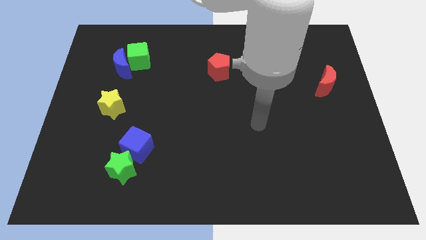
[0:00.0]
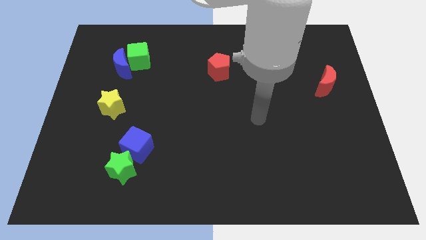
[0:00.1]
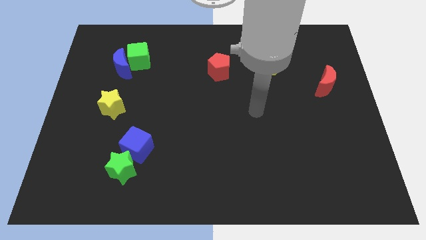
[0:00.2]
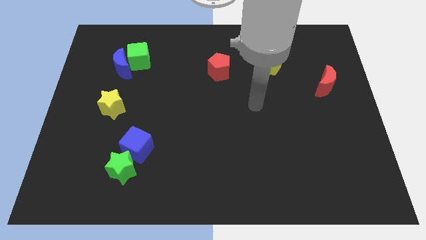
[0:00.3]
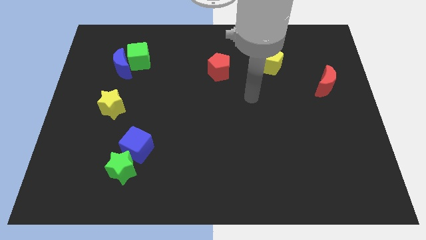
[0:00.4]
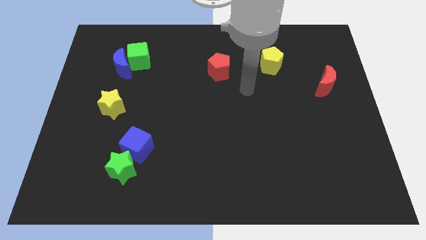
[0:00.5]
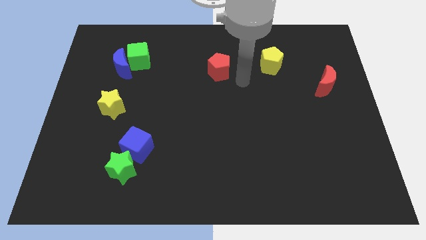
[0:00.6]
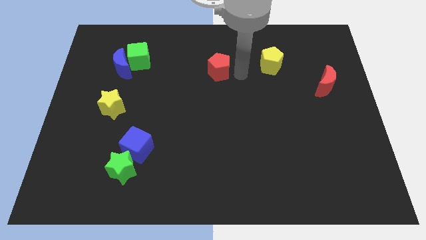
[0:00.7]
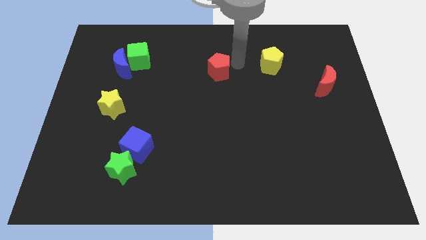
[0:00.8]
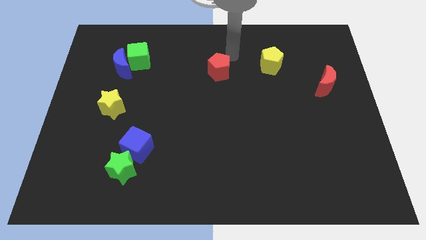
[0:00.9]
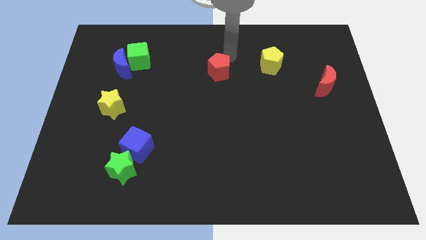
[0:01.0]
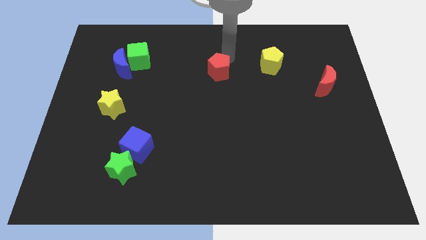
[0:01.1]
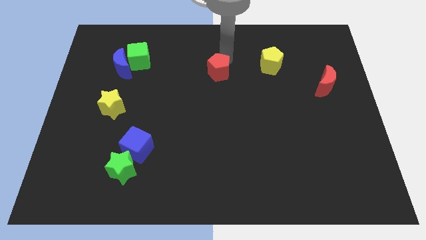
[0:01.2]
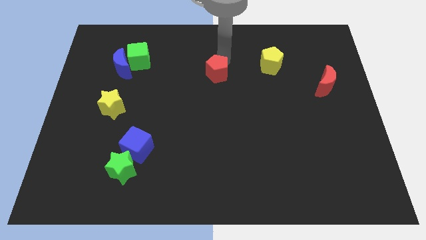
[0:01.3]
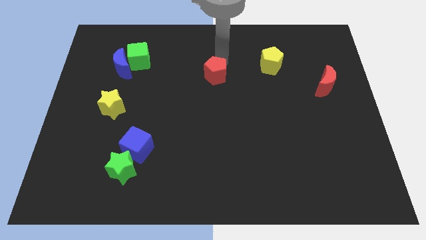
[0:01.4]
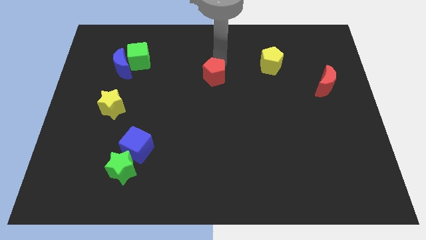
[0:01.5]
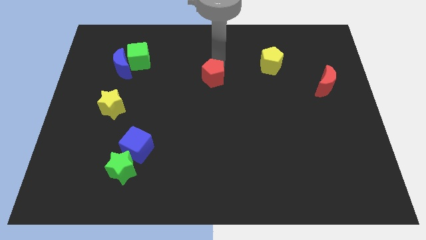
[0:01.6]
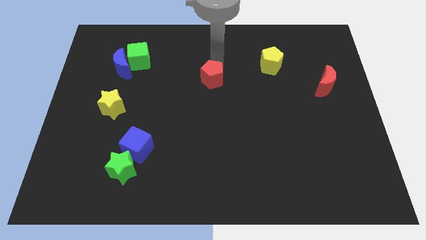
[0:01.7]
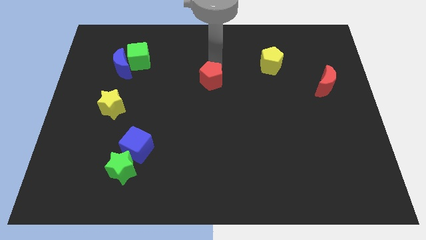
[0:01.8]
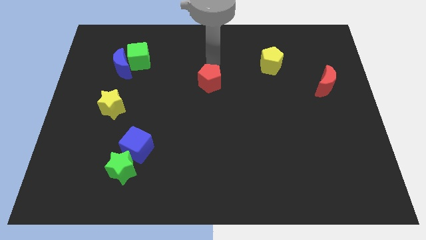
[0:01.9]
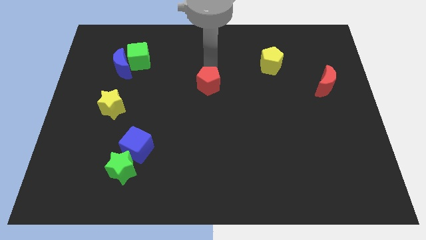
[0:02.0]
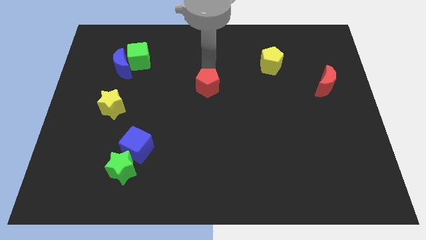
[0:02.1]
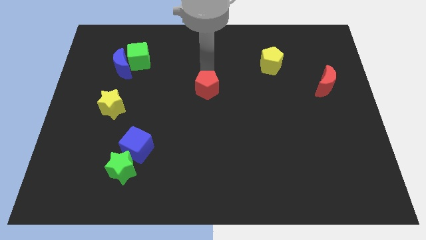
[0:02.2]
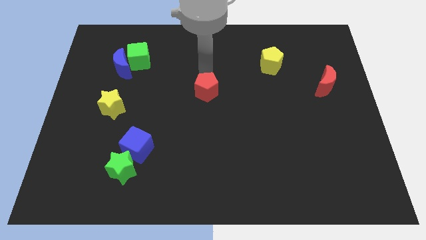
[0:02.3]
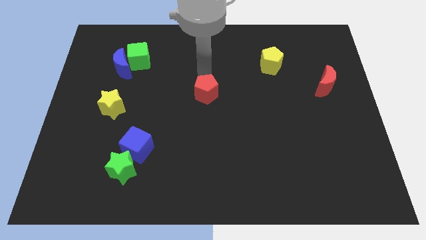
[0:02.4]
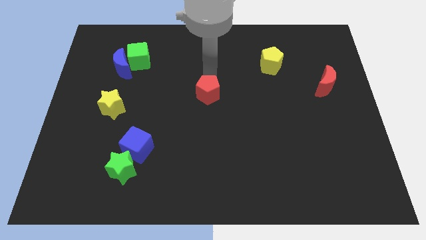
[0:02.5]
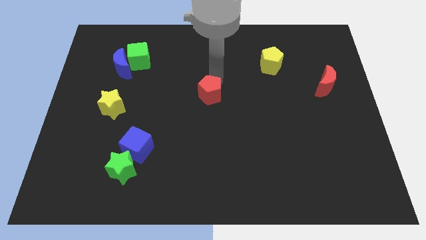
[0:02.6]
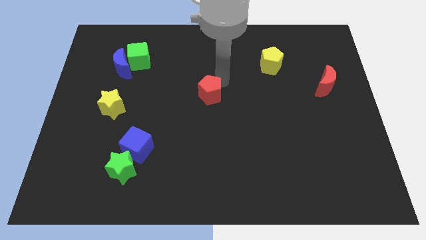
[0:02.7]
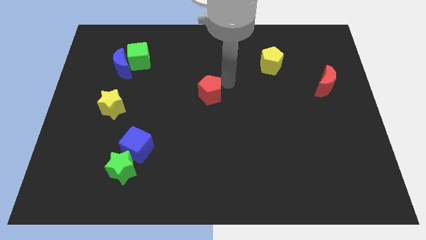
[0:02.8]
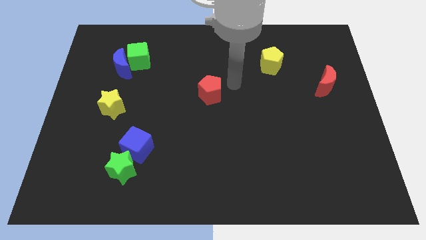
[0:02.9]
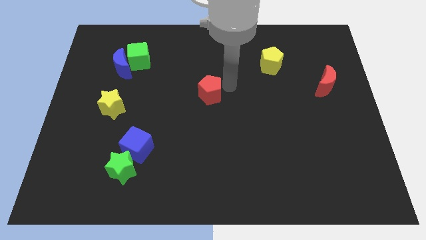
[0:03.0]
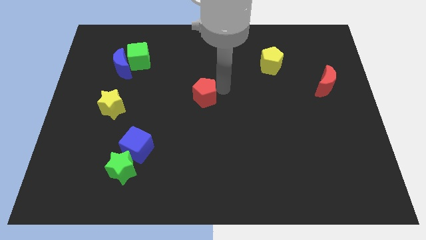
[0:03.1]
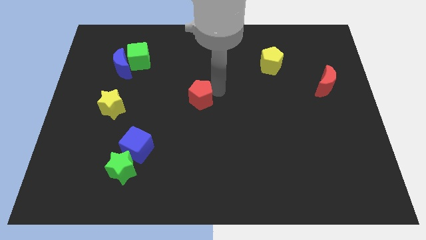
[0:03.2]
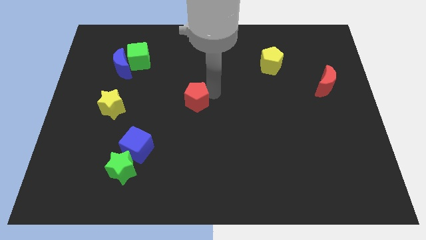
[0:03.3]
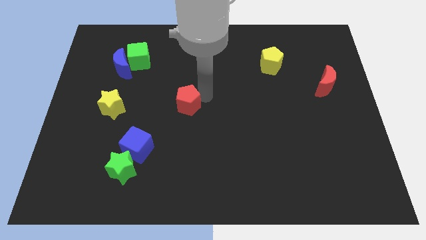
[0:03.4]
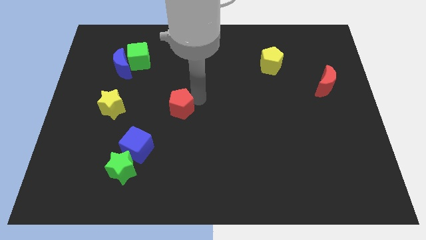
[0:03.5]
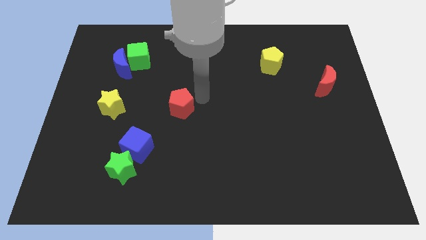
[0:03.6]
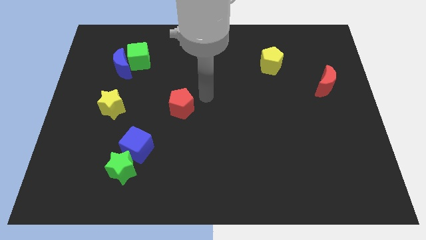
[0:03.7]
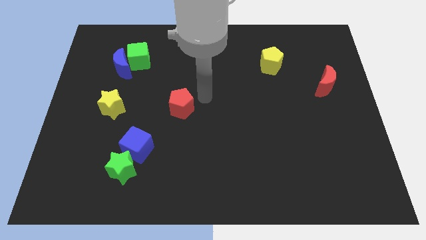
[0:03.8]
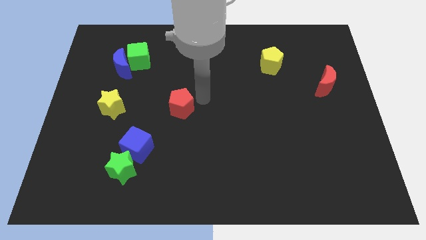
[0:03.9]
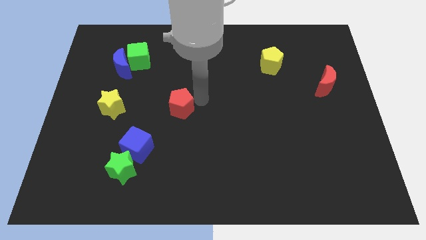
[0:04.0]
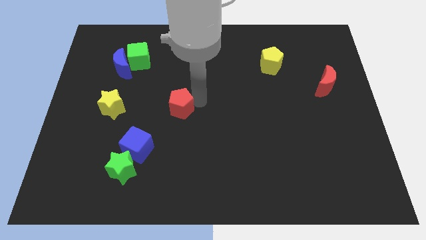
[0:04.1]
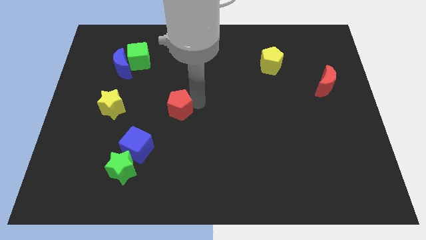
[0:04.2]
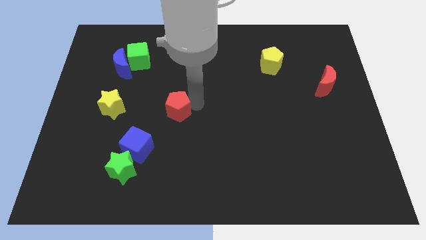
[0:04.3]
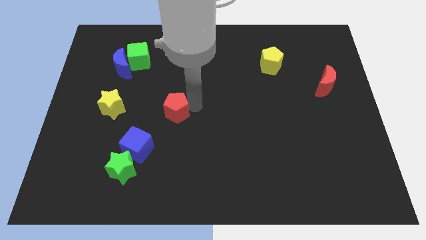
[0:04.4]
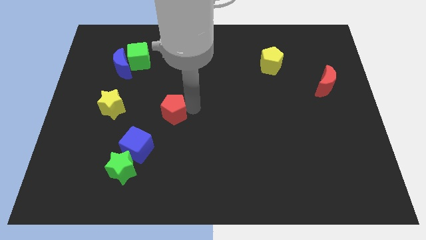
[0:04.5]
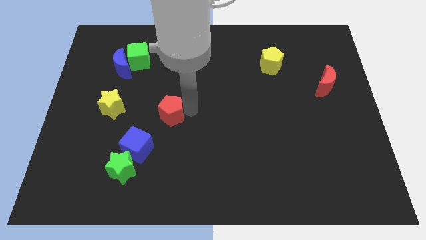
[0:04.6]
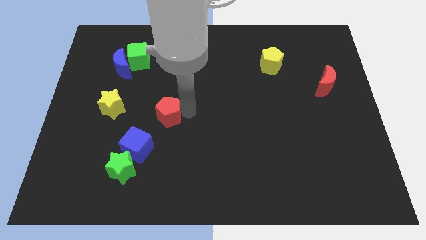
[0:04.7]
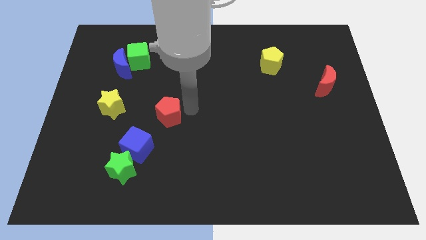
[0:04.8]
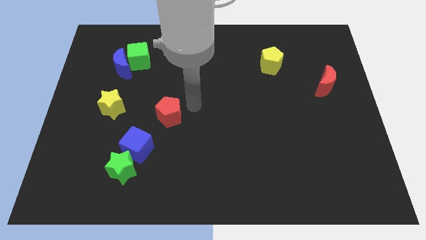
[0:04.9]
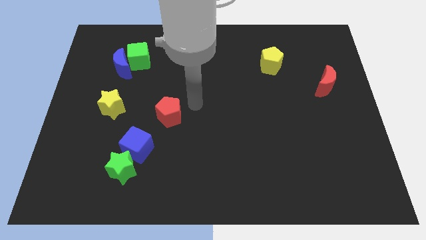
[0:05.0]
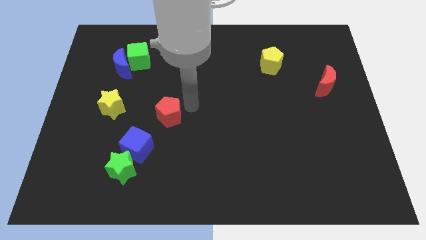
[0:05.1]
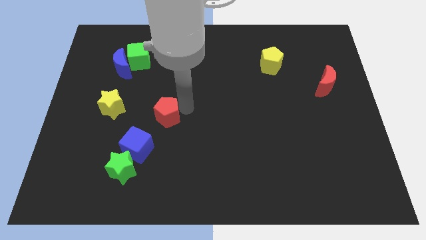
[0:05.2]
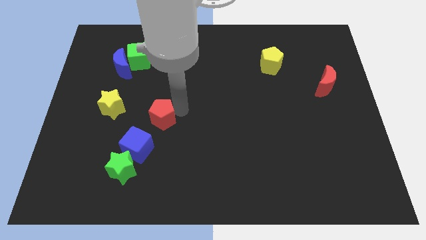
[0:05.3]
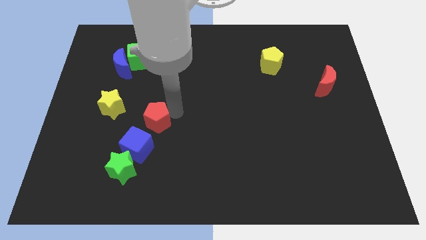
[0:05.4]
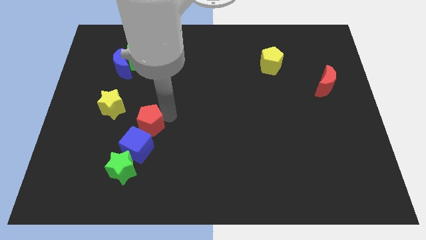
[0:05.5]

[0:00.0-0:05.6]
slide the red pentagon above the green star

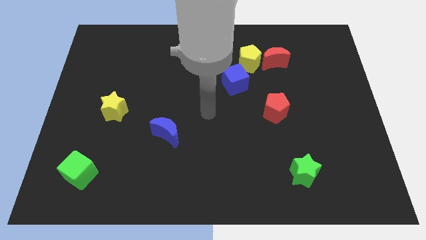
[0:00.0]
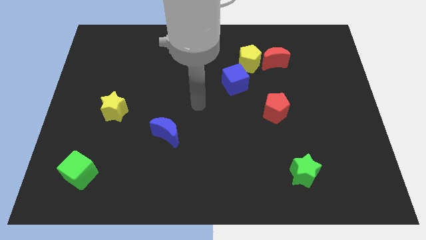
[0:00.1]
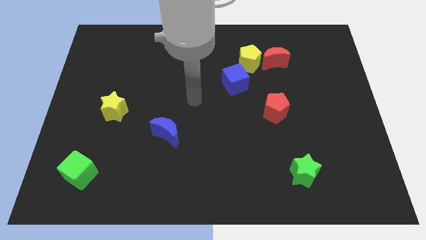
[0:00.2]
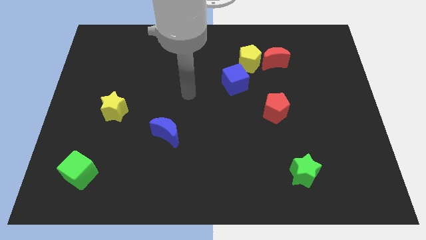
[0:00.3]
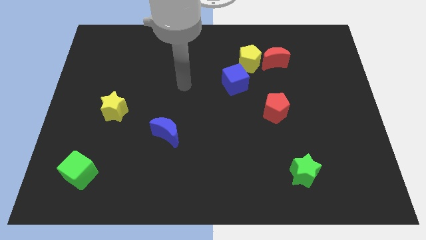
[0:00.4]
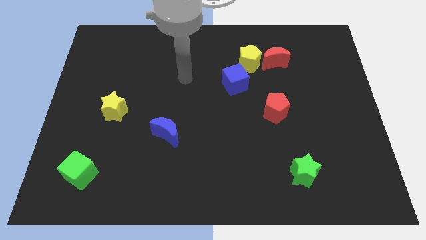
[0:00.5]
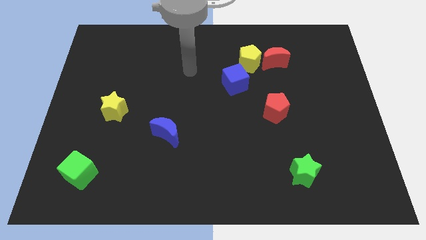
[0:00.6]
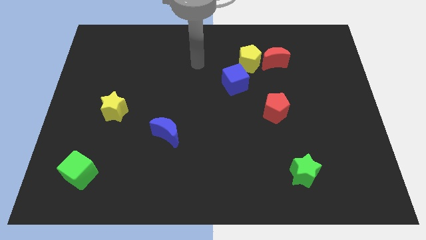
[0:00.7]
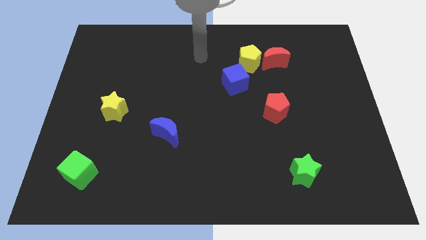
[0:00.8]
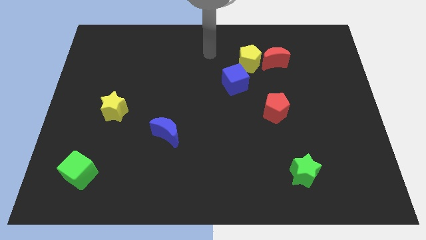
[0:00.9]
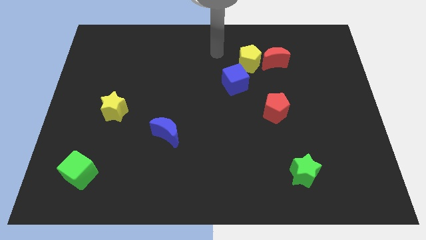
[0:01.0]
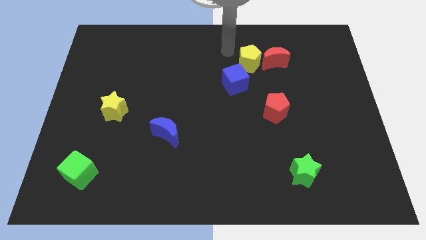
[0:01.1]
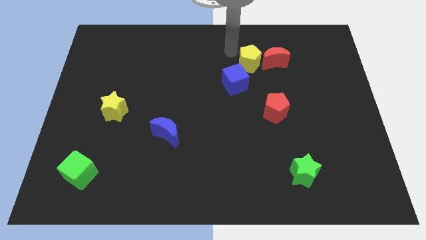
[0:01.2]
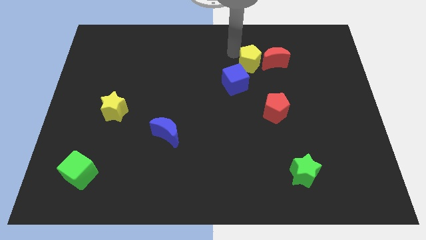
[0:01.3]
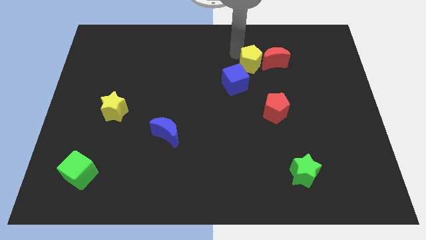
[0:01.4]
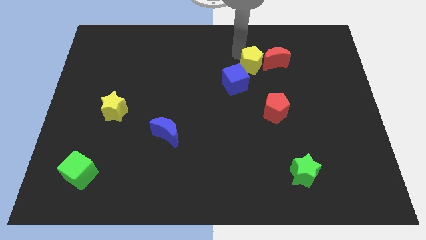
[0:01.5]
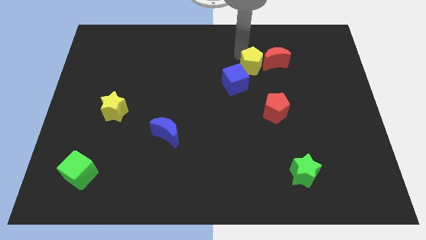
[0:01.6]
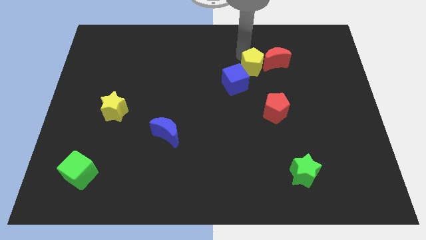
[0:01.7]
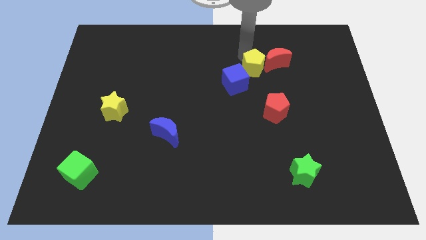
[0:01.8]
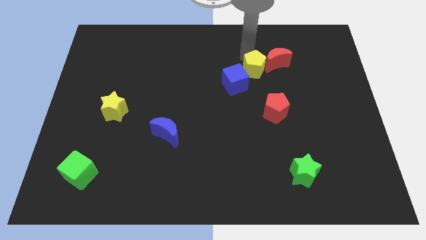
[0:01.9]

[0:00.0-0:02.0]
push the yellow pentagon right of the blue cube
